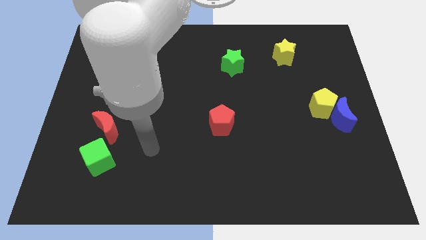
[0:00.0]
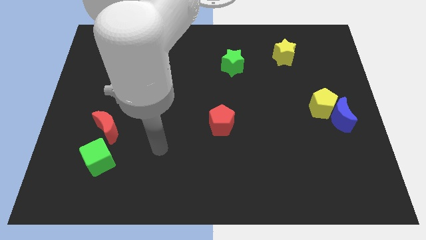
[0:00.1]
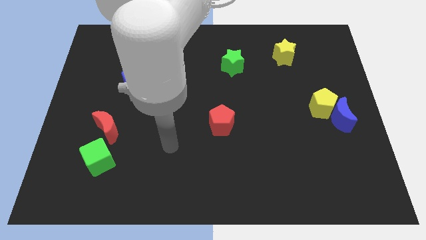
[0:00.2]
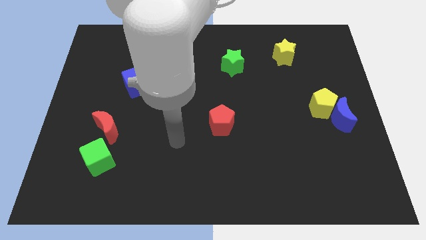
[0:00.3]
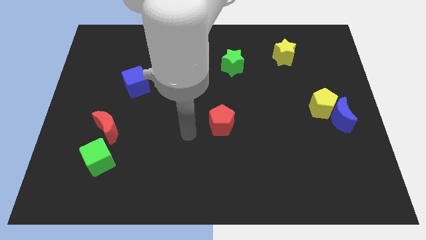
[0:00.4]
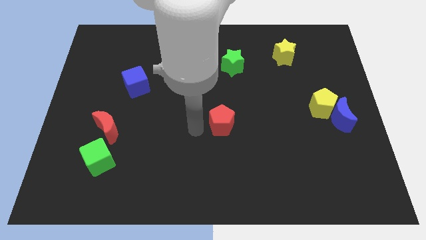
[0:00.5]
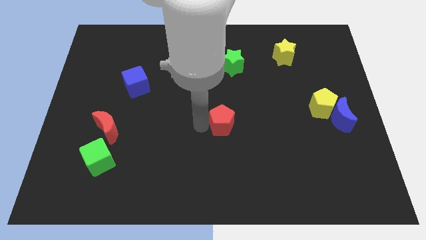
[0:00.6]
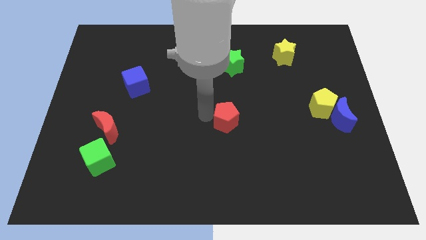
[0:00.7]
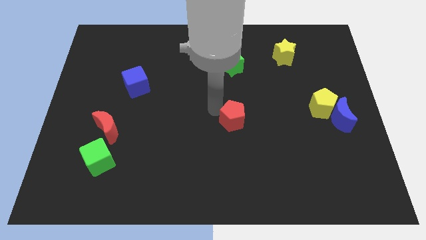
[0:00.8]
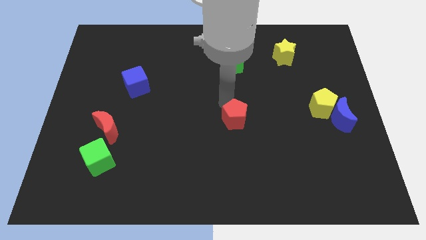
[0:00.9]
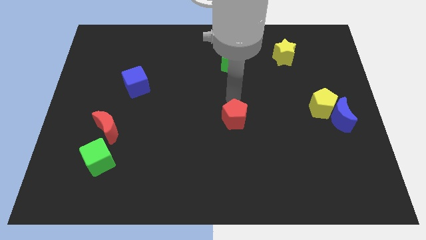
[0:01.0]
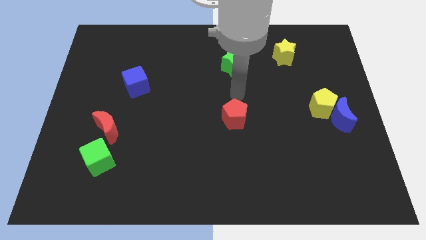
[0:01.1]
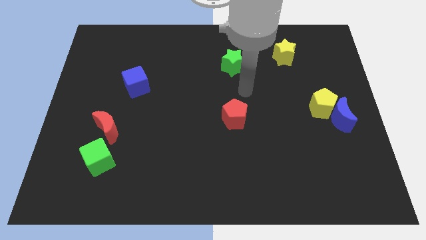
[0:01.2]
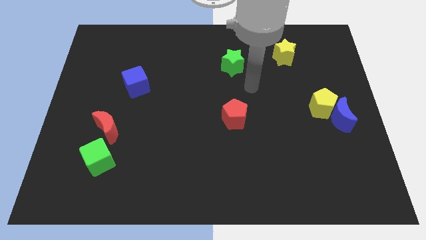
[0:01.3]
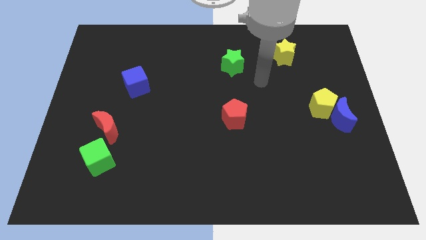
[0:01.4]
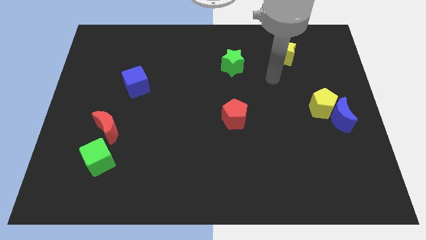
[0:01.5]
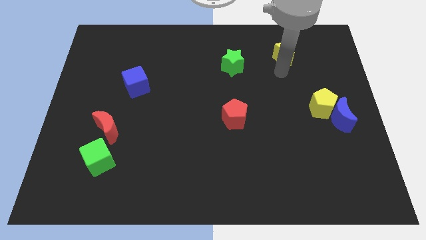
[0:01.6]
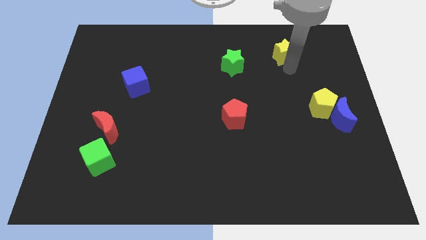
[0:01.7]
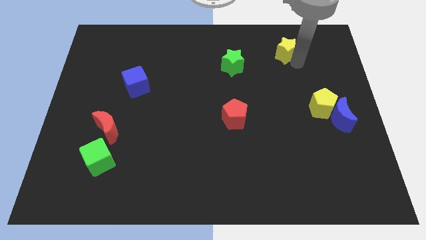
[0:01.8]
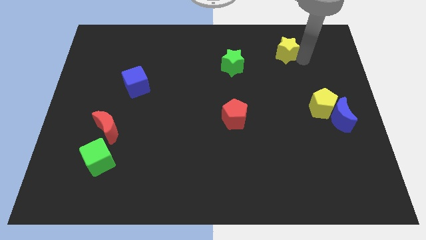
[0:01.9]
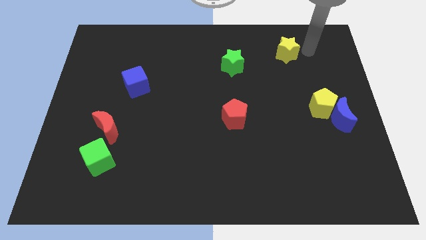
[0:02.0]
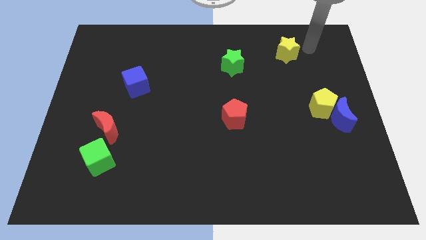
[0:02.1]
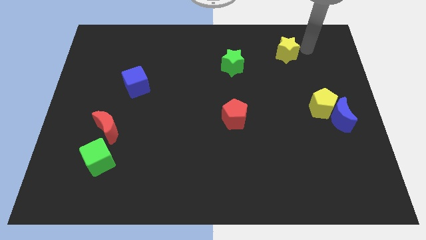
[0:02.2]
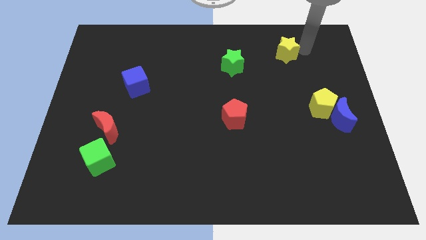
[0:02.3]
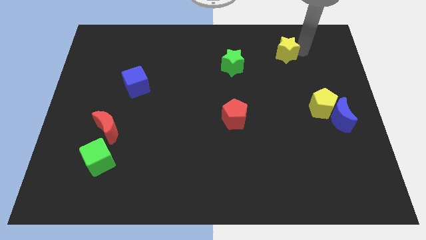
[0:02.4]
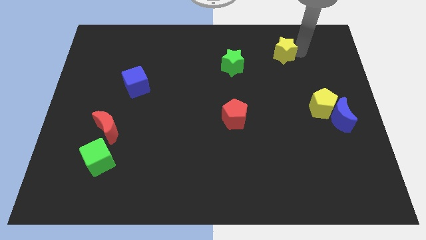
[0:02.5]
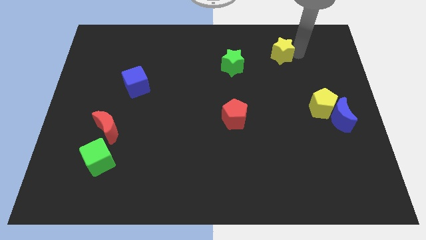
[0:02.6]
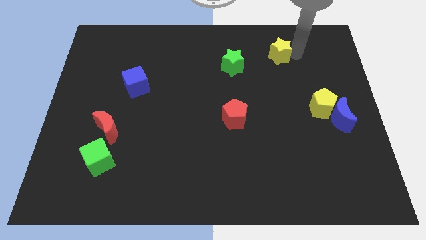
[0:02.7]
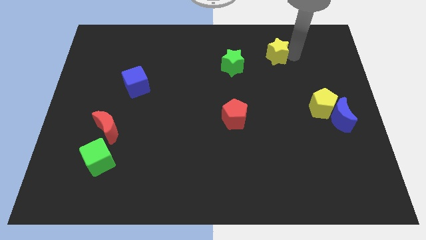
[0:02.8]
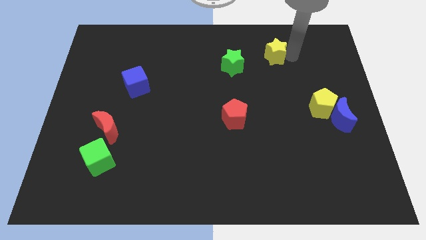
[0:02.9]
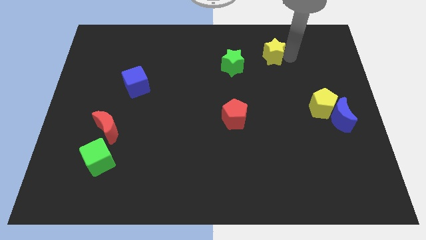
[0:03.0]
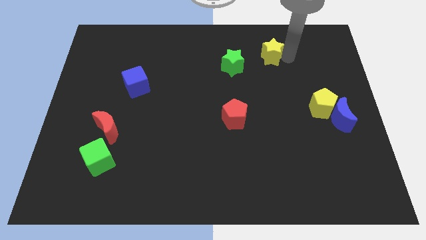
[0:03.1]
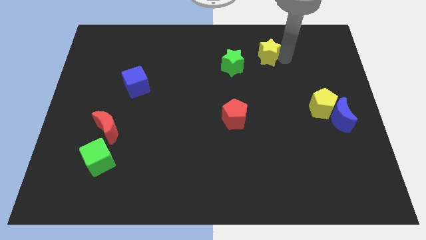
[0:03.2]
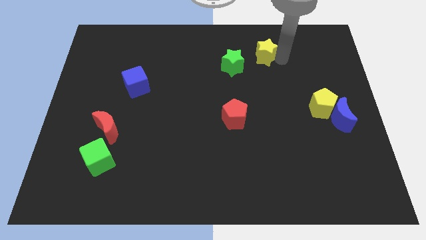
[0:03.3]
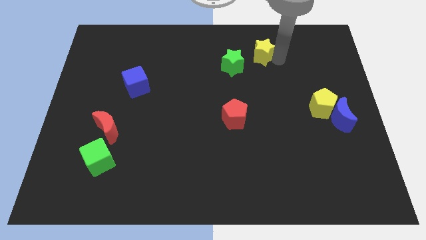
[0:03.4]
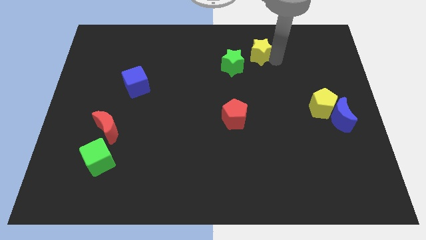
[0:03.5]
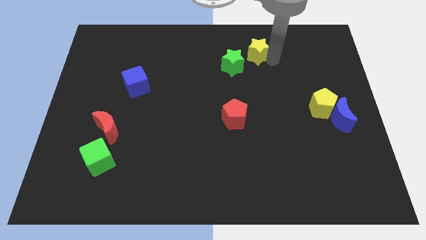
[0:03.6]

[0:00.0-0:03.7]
slightly slide the yellow star to the left

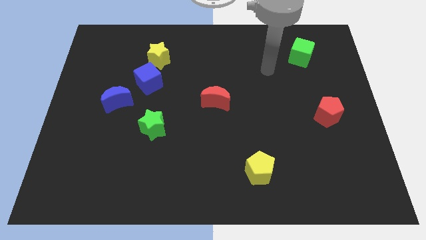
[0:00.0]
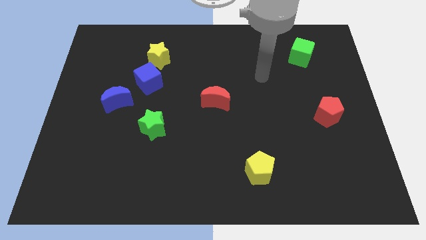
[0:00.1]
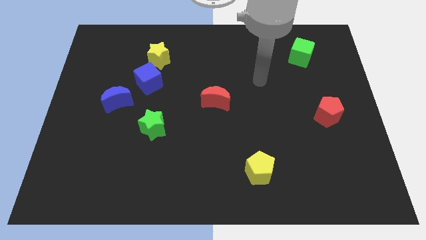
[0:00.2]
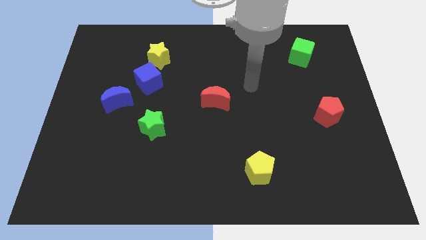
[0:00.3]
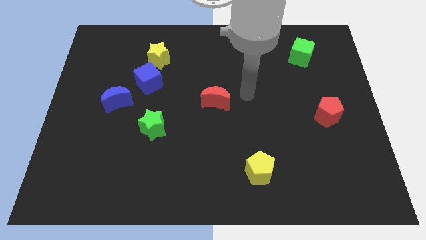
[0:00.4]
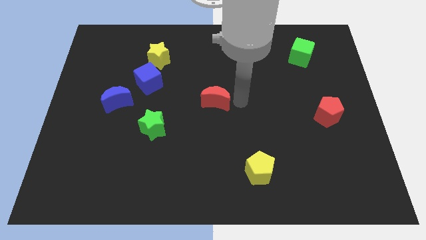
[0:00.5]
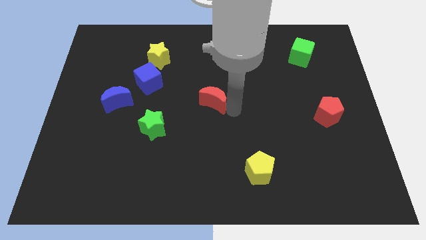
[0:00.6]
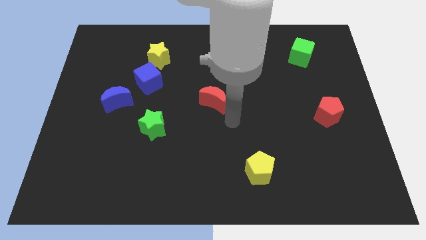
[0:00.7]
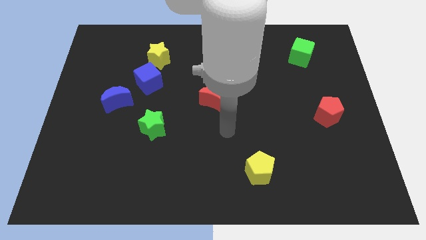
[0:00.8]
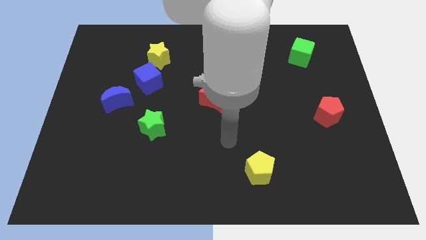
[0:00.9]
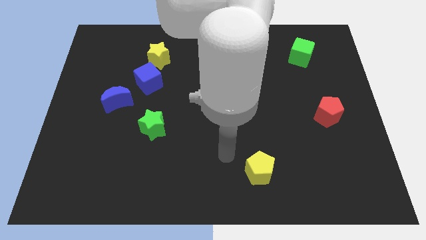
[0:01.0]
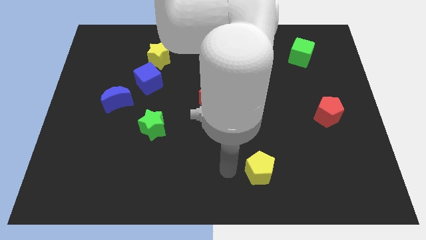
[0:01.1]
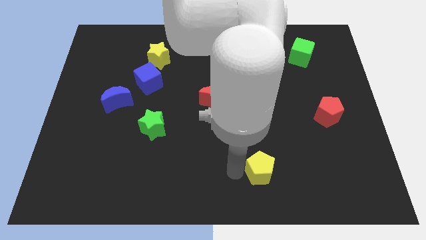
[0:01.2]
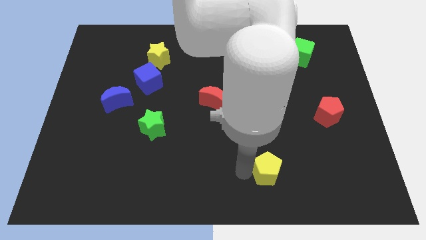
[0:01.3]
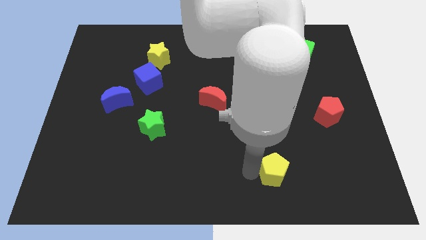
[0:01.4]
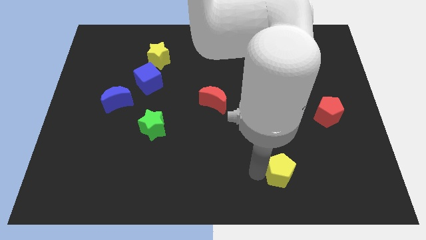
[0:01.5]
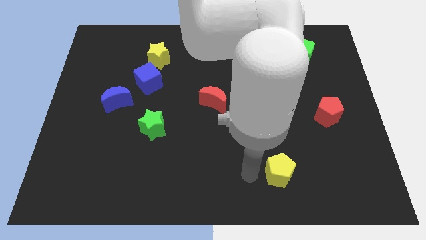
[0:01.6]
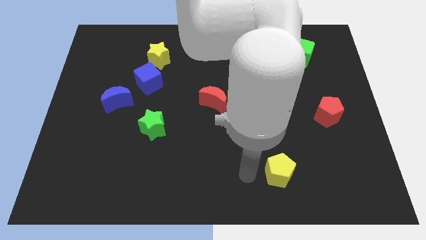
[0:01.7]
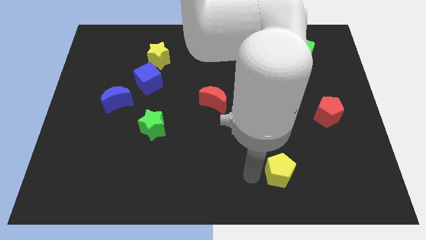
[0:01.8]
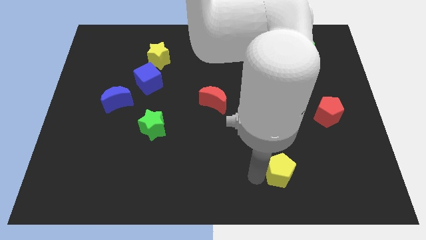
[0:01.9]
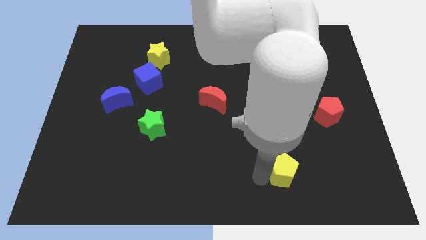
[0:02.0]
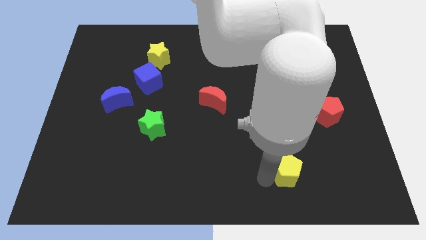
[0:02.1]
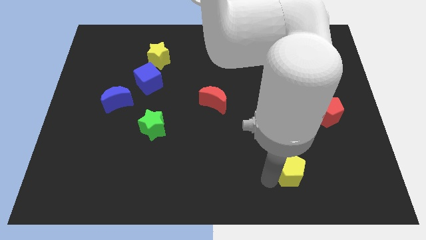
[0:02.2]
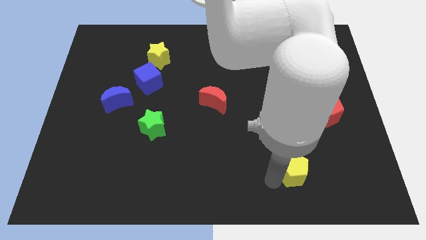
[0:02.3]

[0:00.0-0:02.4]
slide the yellow pentagon somewhat to the right

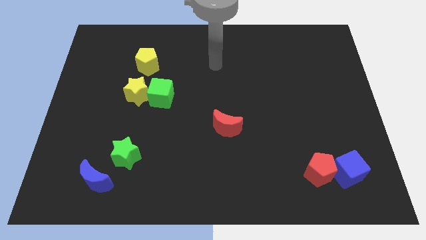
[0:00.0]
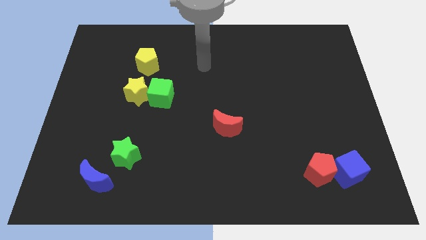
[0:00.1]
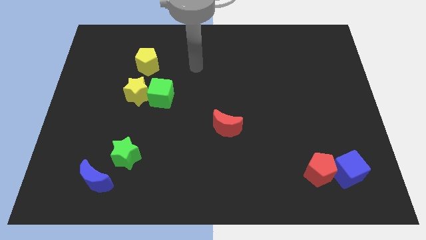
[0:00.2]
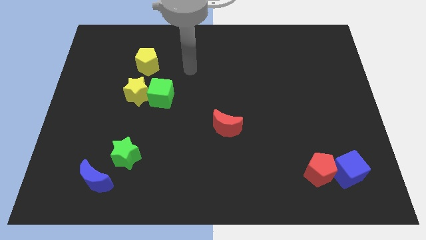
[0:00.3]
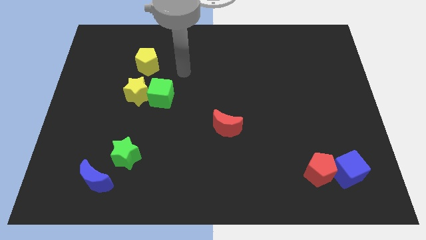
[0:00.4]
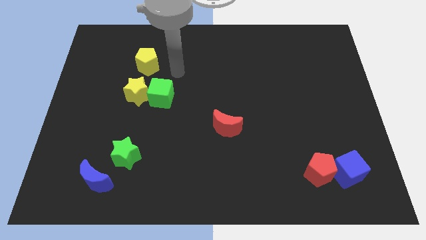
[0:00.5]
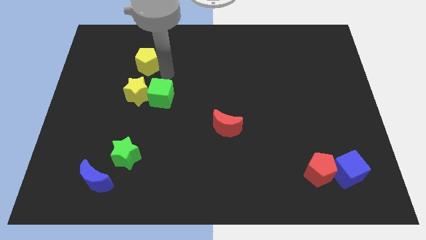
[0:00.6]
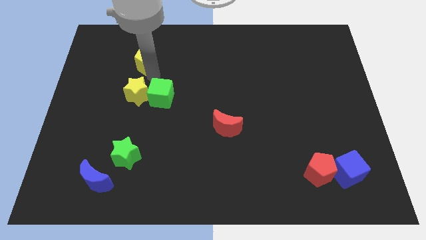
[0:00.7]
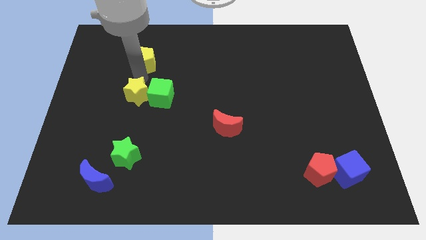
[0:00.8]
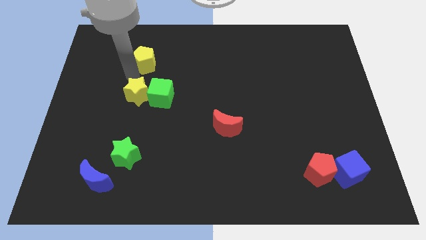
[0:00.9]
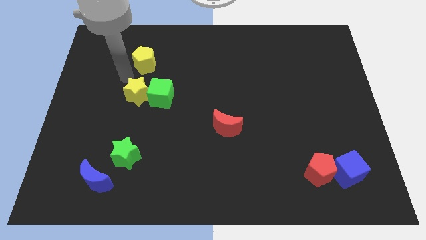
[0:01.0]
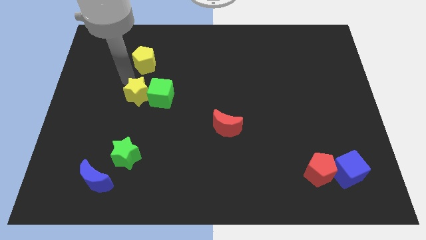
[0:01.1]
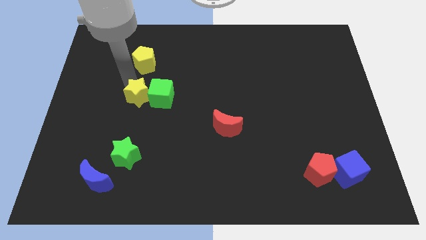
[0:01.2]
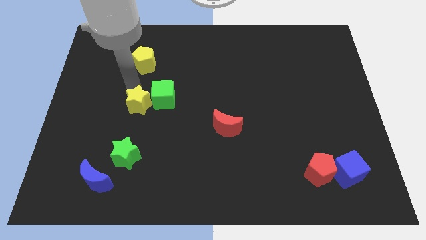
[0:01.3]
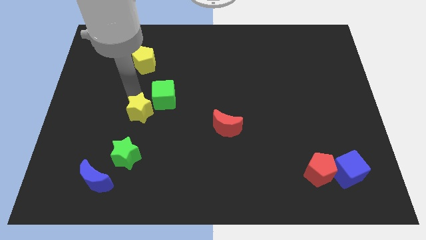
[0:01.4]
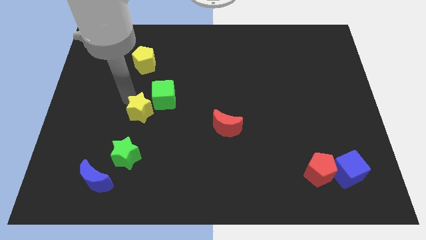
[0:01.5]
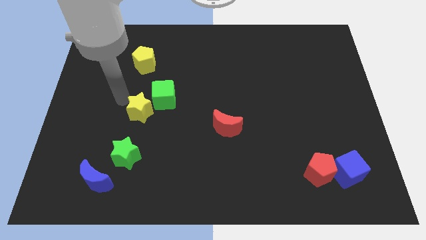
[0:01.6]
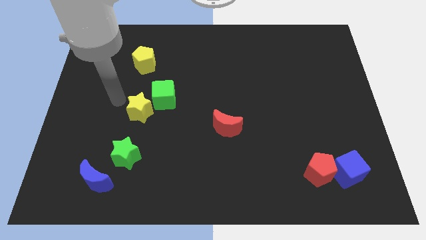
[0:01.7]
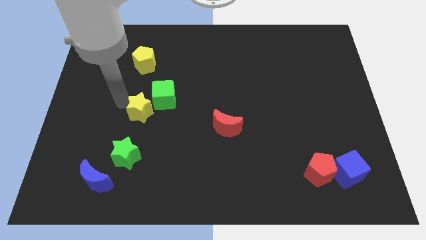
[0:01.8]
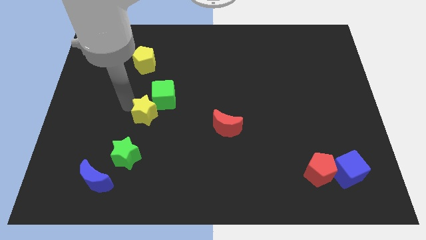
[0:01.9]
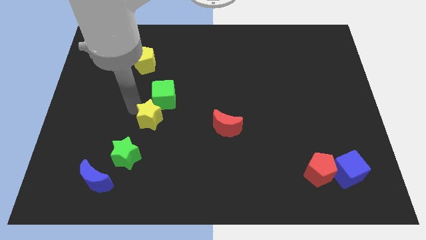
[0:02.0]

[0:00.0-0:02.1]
slightly slide the yellow star down and to the right diagonally
